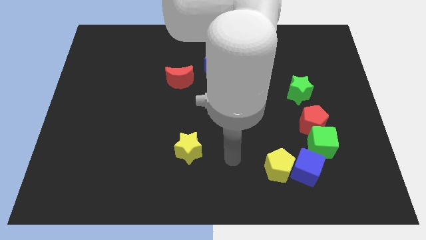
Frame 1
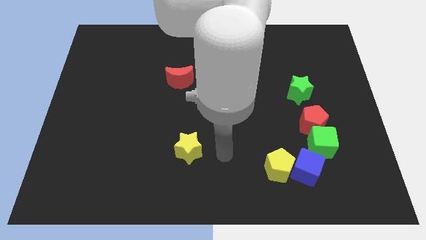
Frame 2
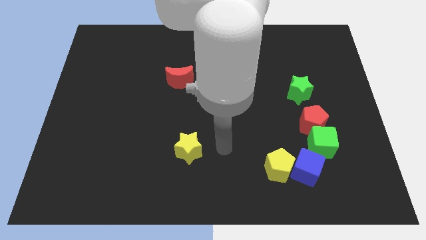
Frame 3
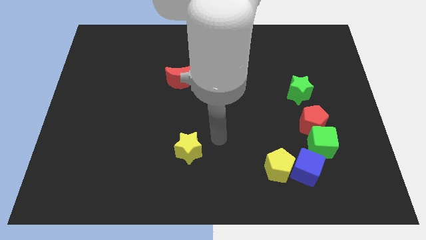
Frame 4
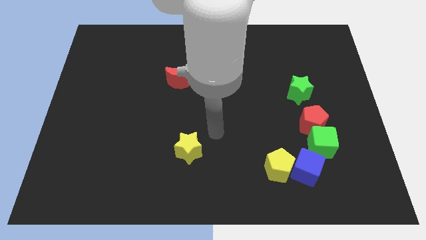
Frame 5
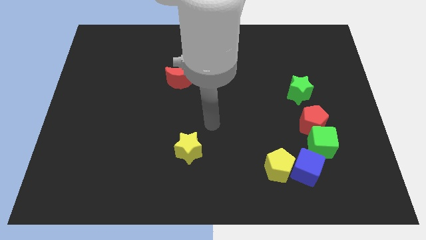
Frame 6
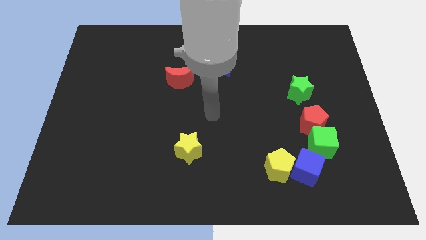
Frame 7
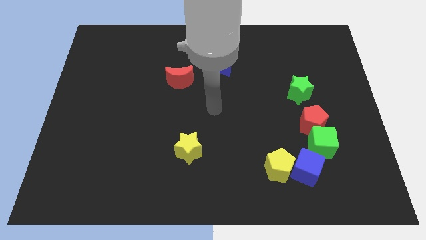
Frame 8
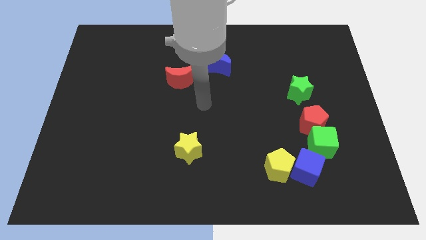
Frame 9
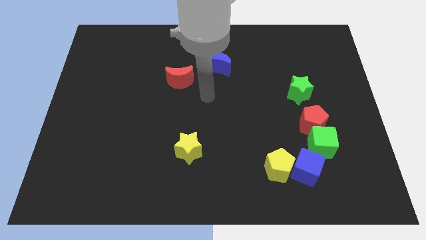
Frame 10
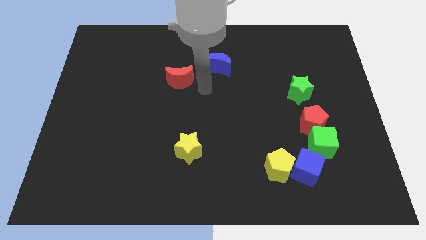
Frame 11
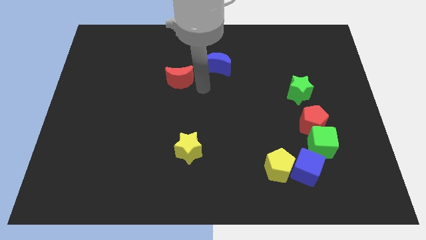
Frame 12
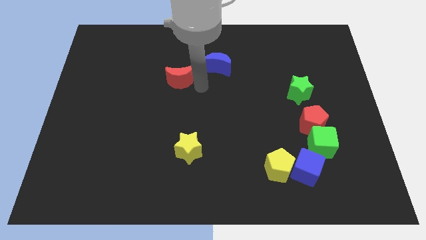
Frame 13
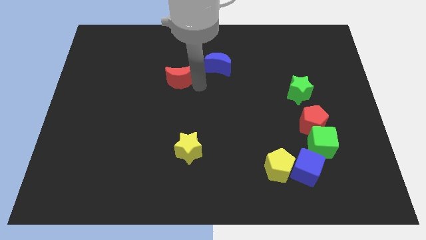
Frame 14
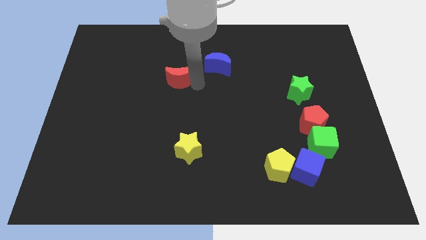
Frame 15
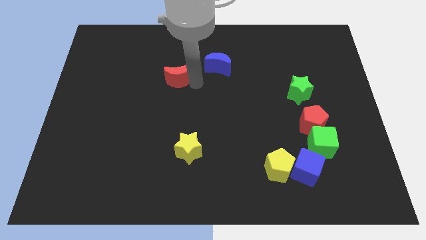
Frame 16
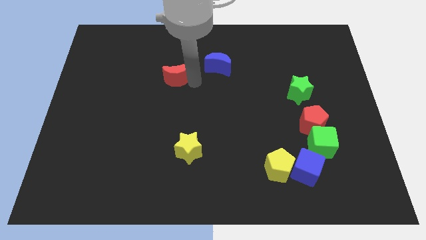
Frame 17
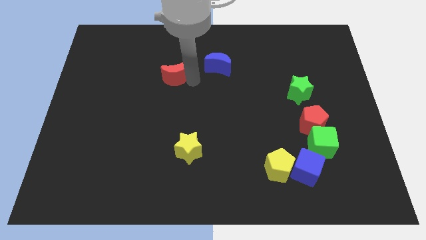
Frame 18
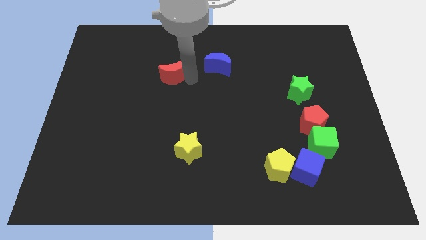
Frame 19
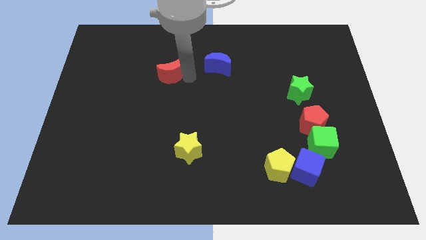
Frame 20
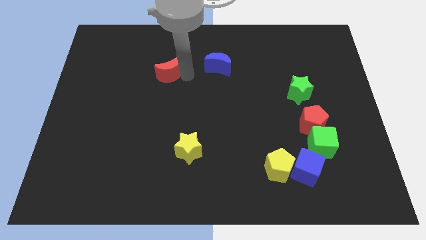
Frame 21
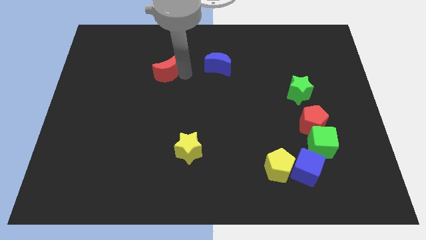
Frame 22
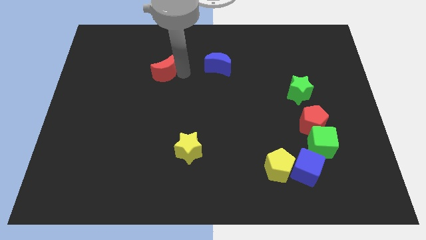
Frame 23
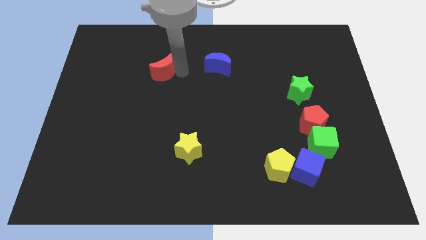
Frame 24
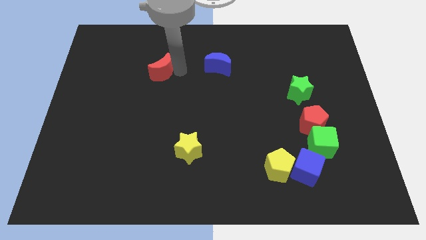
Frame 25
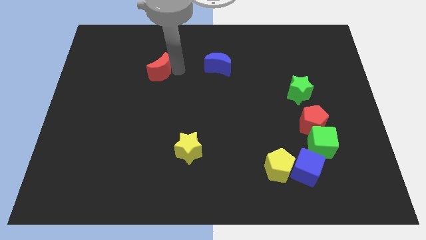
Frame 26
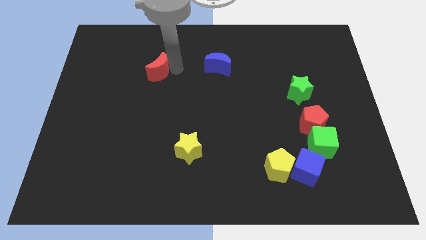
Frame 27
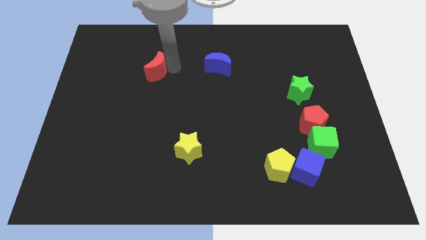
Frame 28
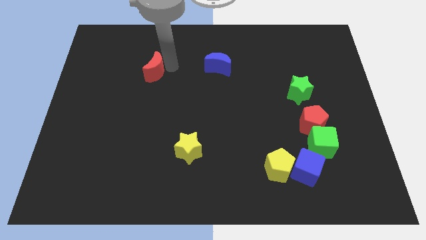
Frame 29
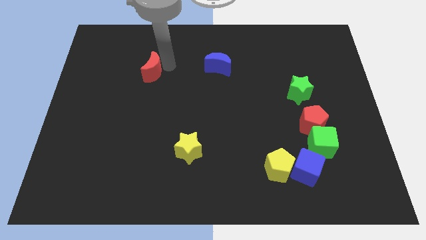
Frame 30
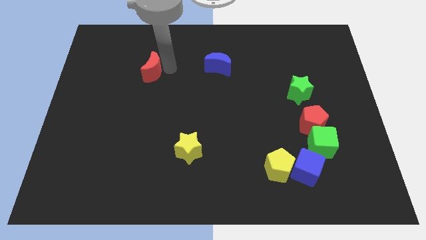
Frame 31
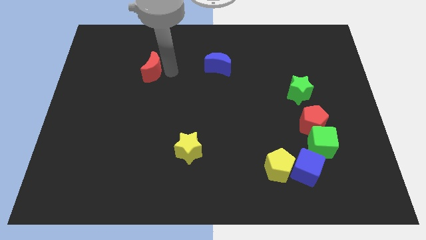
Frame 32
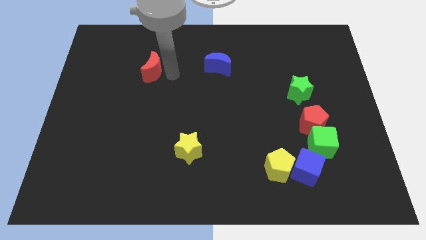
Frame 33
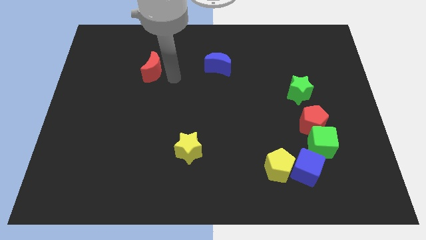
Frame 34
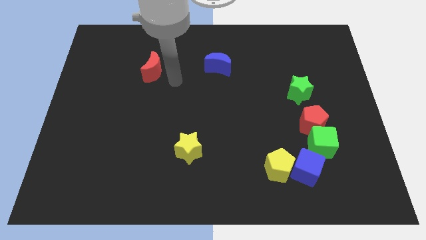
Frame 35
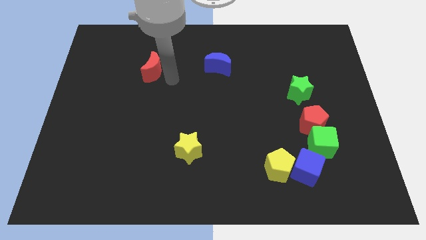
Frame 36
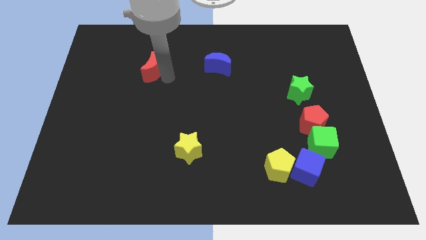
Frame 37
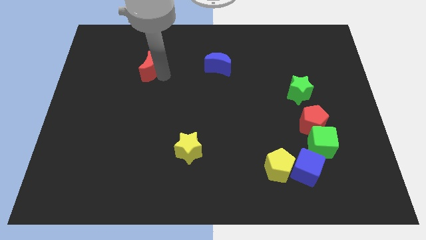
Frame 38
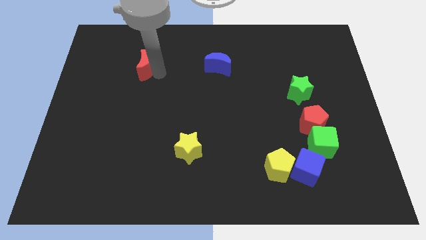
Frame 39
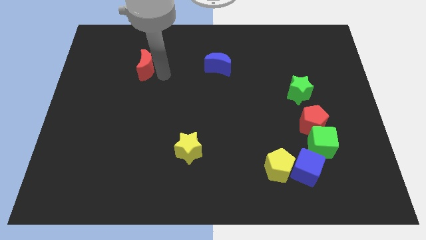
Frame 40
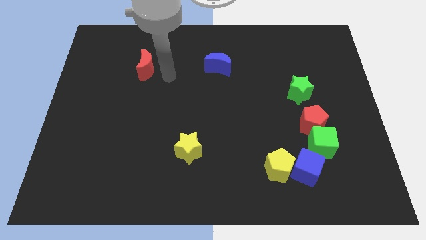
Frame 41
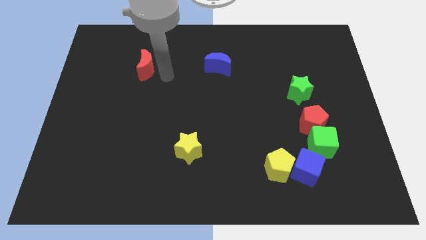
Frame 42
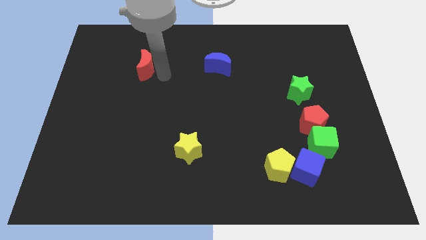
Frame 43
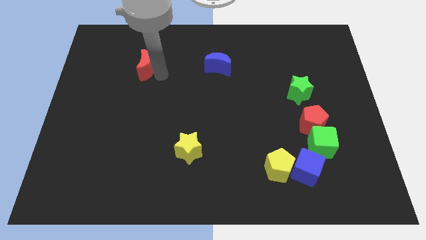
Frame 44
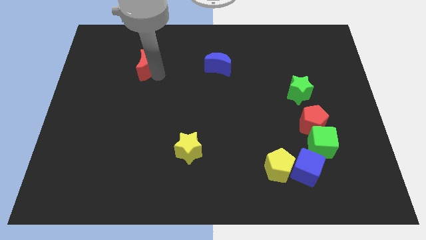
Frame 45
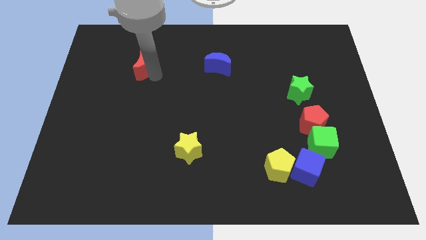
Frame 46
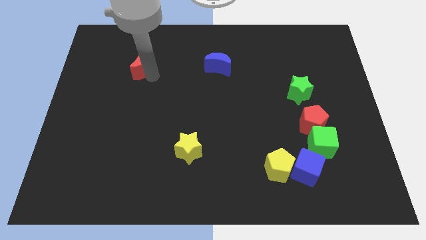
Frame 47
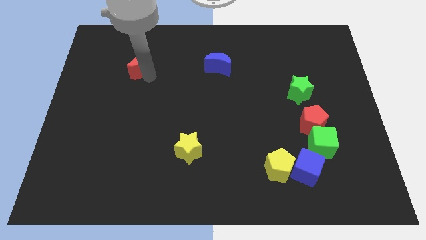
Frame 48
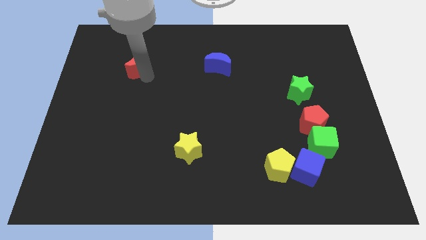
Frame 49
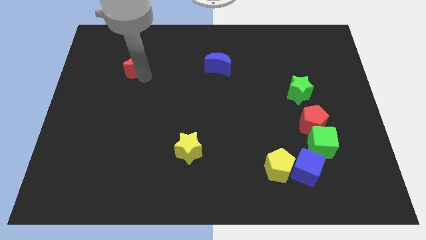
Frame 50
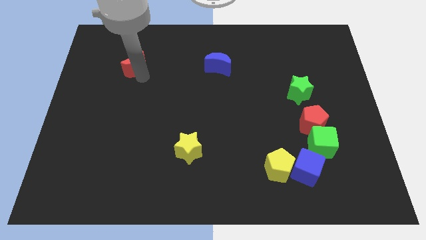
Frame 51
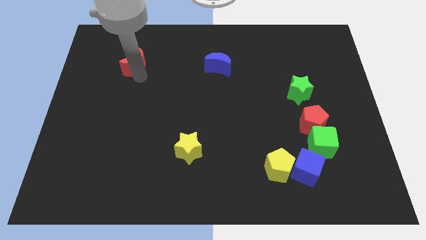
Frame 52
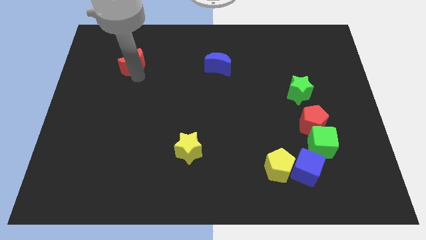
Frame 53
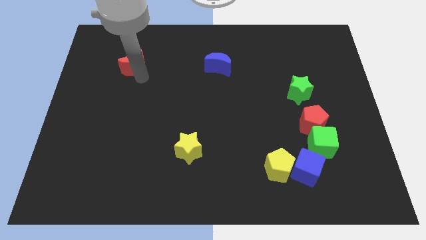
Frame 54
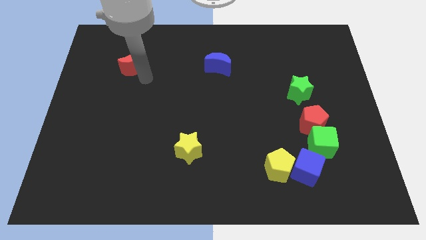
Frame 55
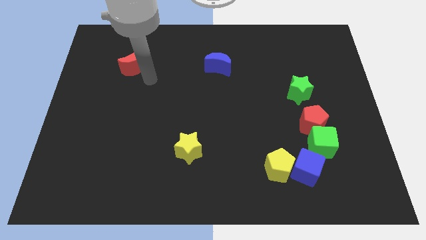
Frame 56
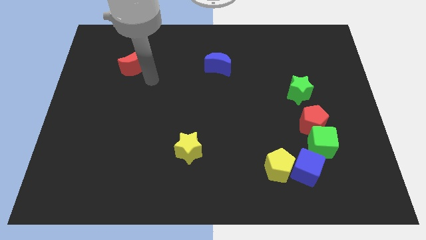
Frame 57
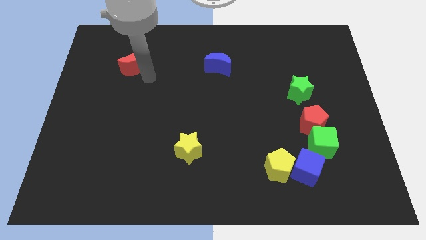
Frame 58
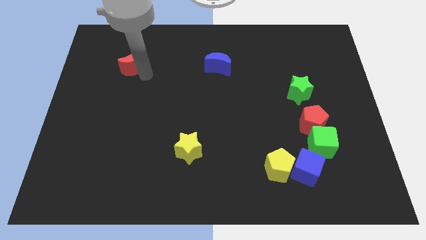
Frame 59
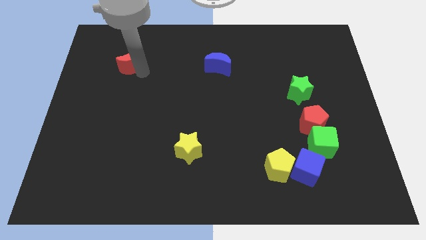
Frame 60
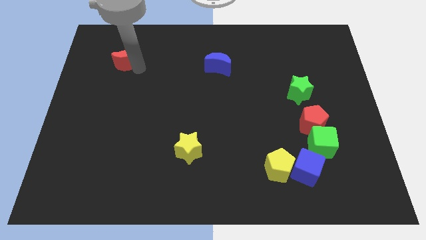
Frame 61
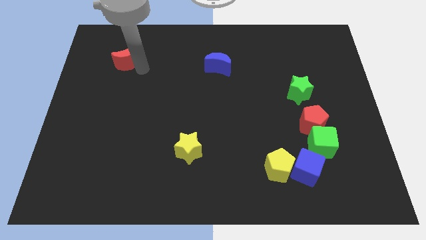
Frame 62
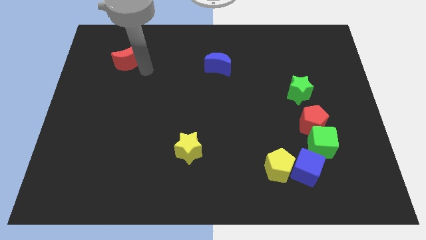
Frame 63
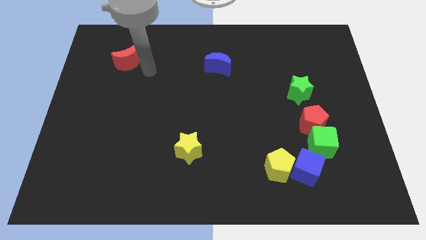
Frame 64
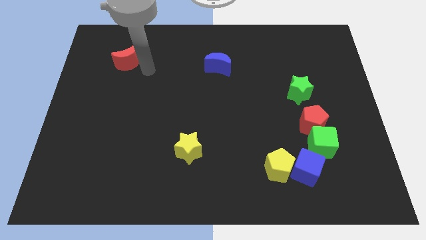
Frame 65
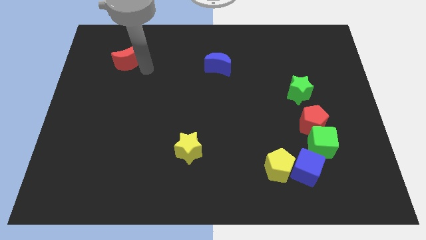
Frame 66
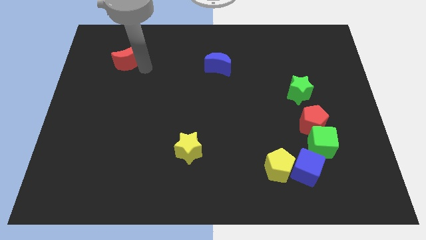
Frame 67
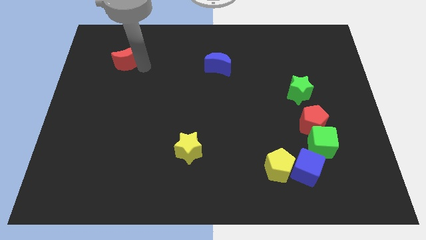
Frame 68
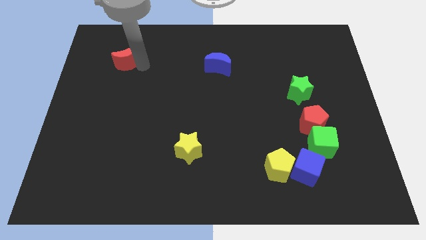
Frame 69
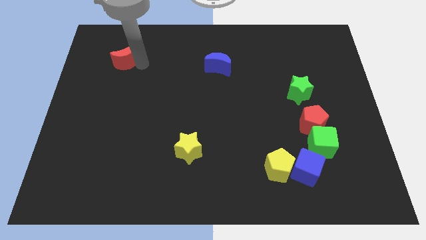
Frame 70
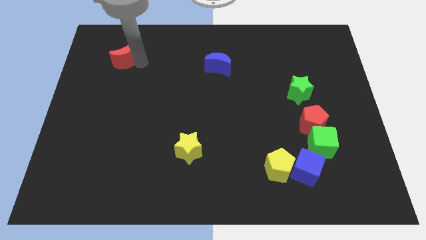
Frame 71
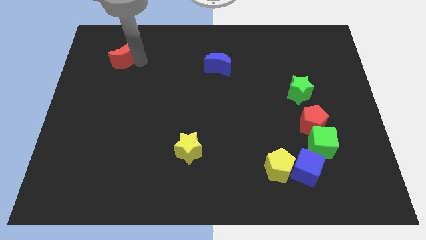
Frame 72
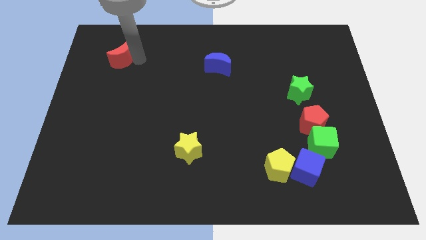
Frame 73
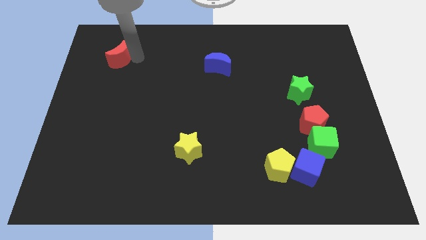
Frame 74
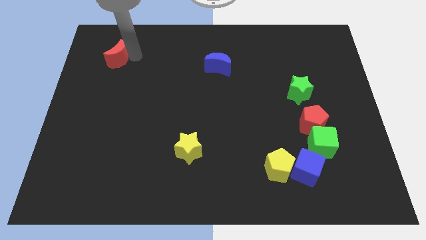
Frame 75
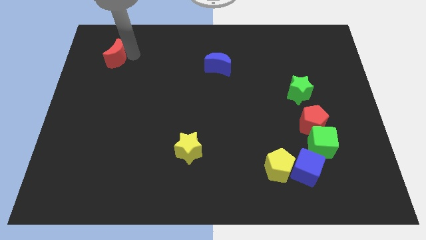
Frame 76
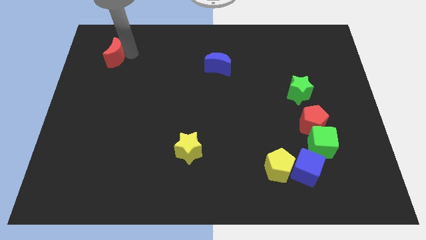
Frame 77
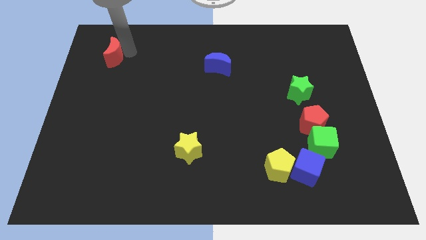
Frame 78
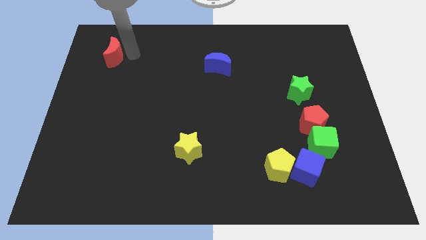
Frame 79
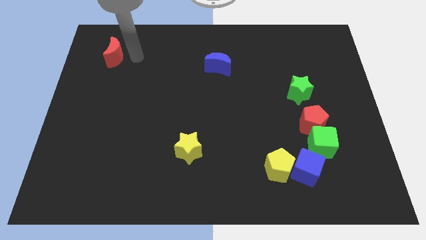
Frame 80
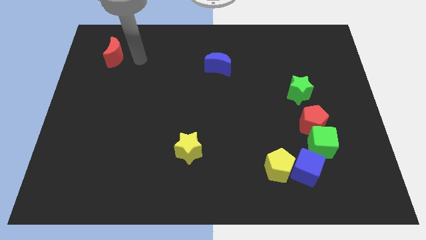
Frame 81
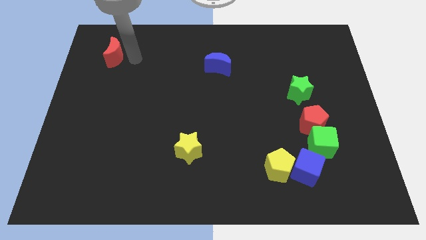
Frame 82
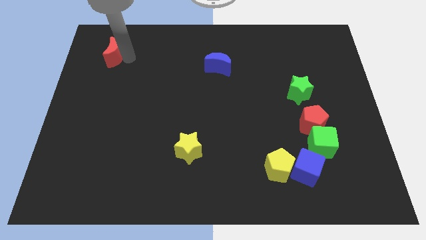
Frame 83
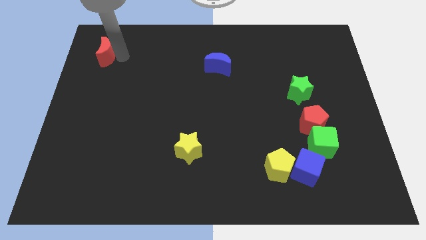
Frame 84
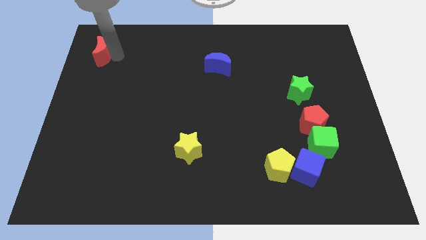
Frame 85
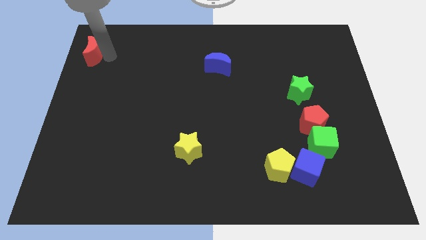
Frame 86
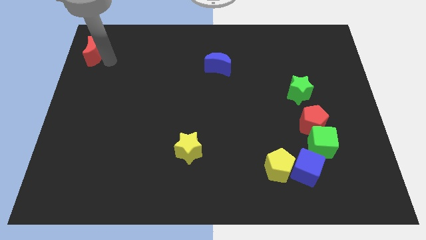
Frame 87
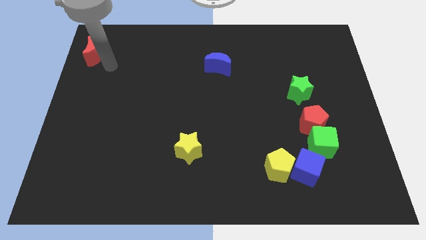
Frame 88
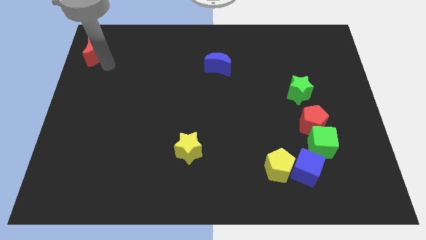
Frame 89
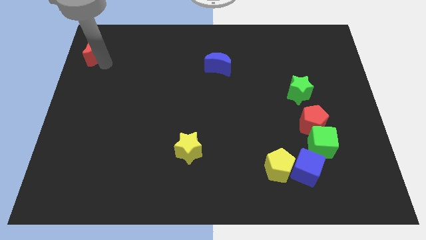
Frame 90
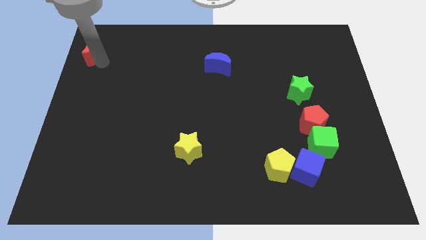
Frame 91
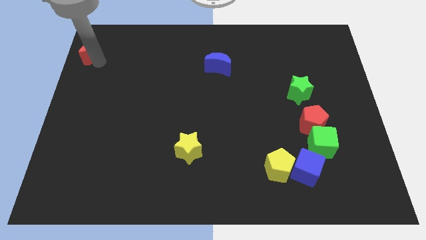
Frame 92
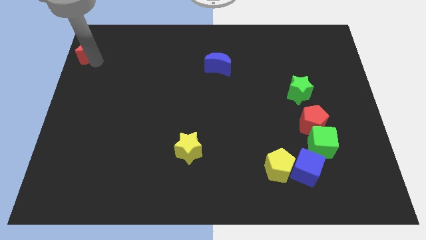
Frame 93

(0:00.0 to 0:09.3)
move the red moon to the upper left corner
